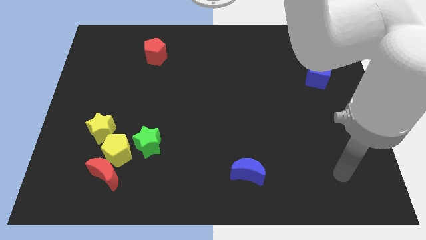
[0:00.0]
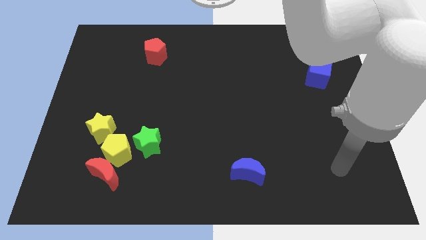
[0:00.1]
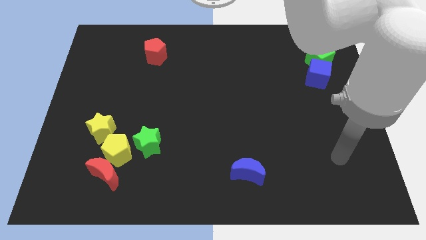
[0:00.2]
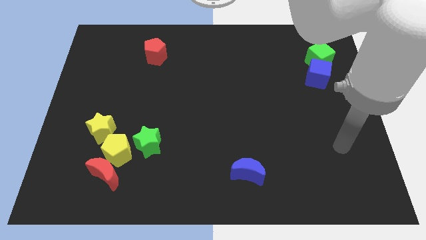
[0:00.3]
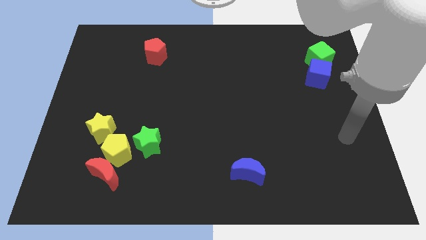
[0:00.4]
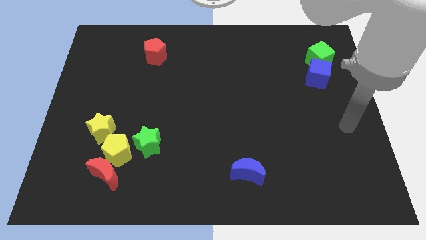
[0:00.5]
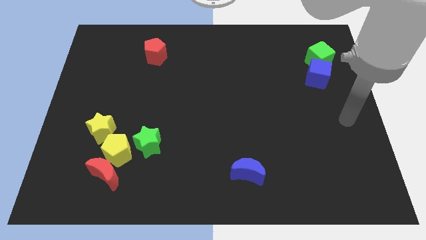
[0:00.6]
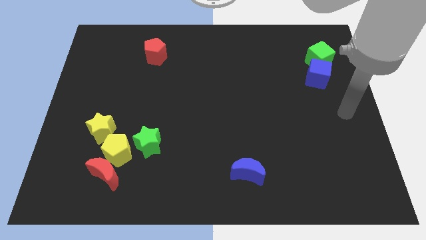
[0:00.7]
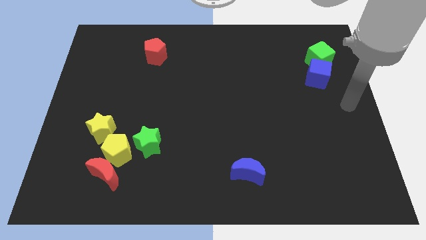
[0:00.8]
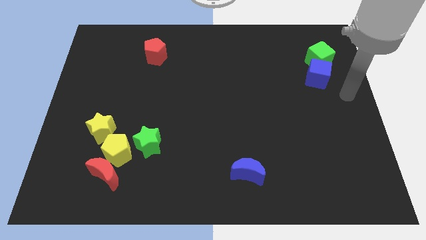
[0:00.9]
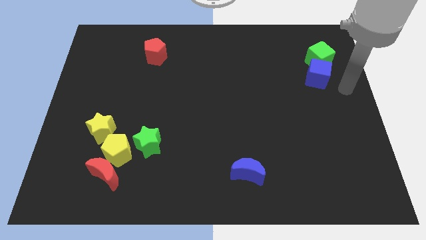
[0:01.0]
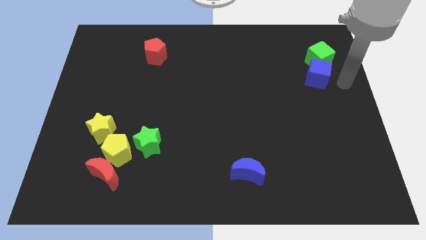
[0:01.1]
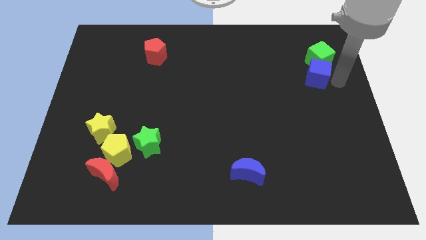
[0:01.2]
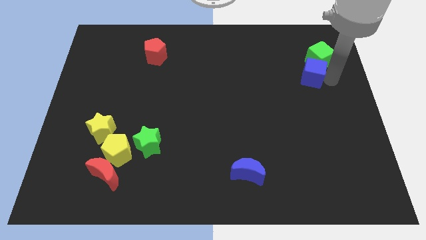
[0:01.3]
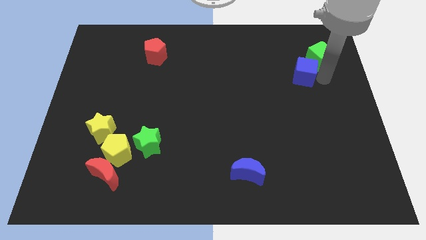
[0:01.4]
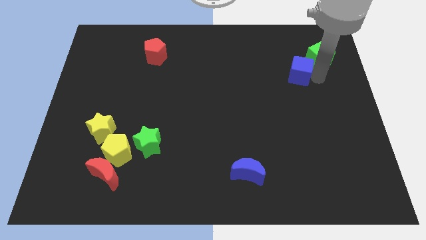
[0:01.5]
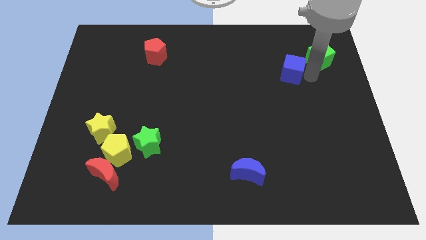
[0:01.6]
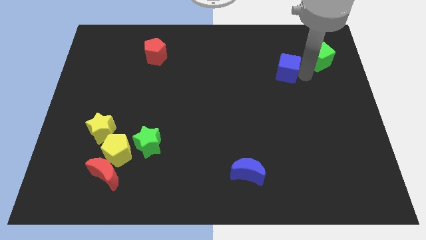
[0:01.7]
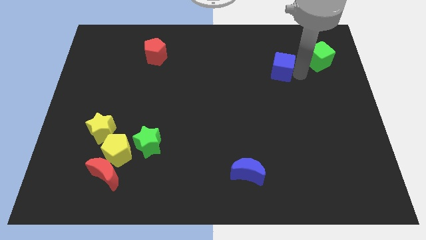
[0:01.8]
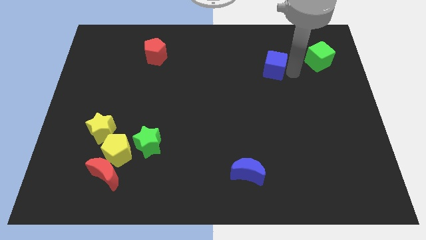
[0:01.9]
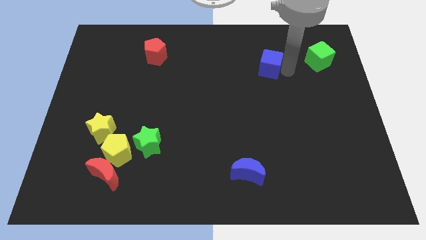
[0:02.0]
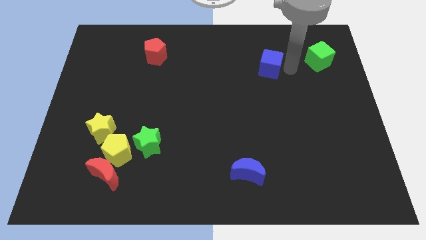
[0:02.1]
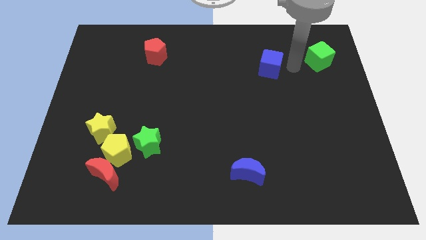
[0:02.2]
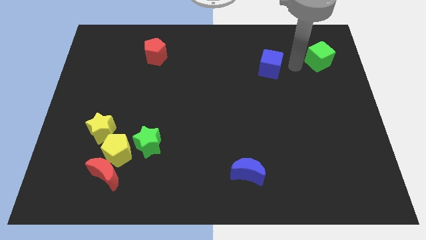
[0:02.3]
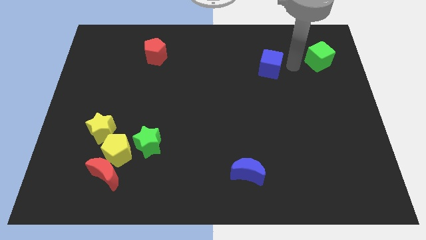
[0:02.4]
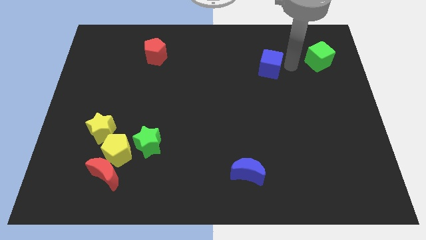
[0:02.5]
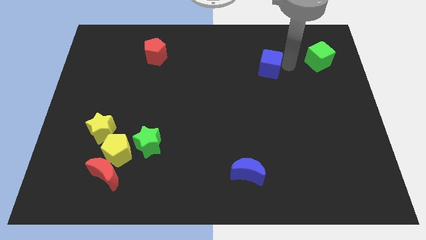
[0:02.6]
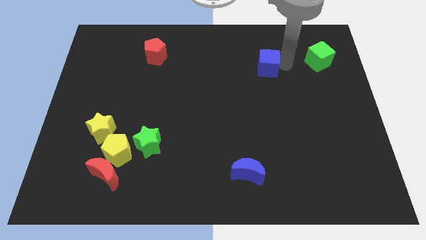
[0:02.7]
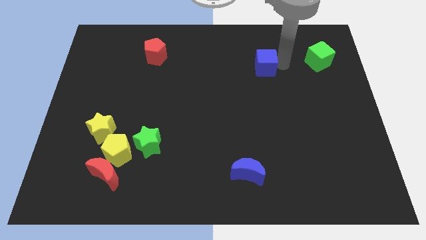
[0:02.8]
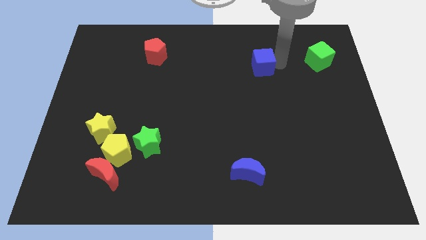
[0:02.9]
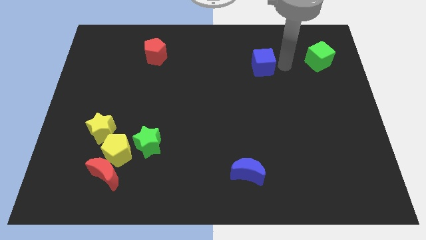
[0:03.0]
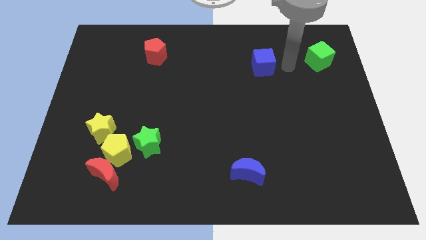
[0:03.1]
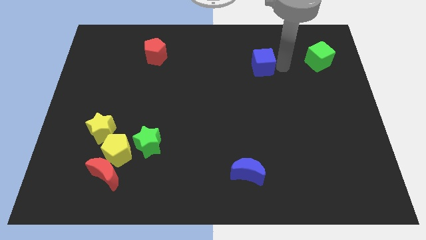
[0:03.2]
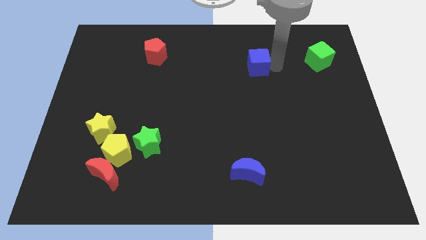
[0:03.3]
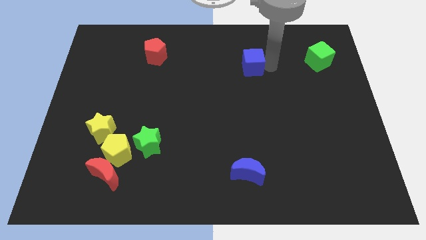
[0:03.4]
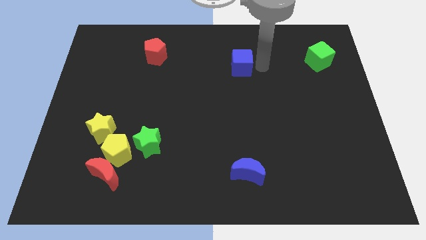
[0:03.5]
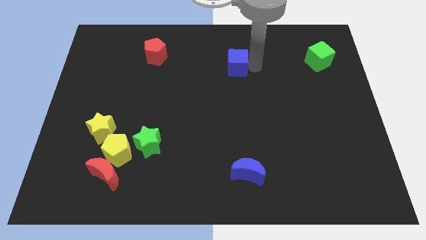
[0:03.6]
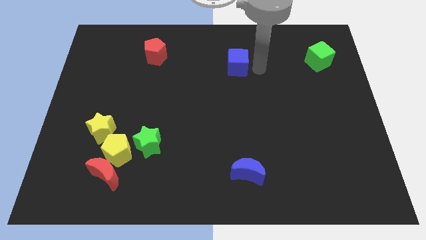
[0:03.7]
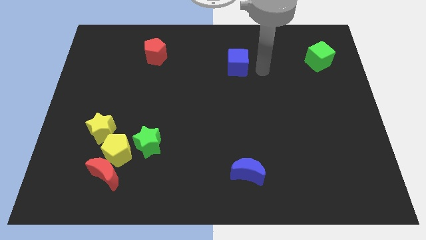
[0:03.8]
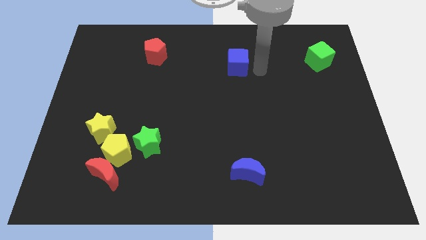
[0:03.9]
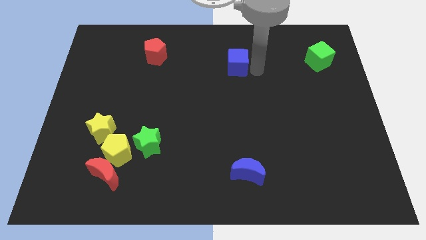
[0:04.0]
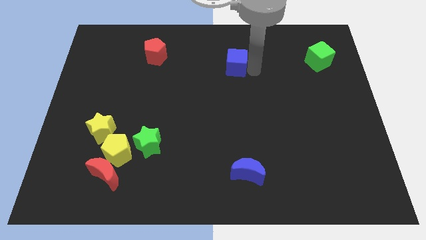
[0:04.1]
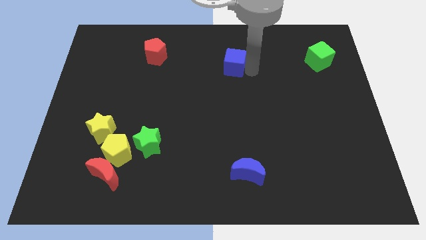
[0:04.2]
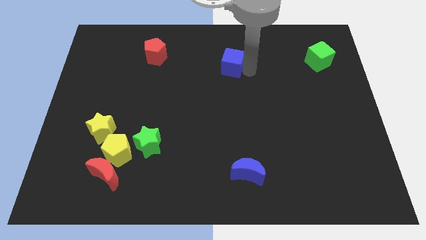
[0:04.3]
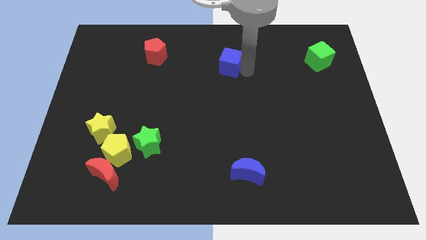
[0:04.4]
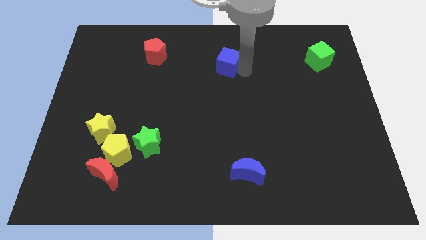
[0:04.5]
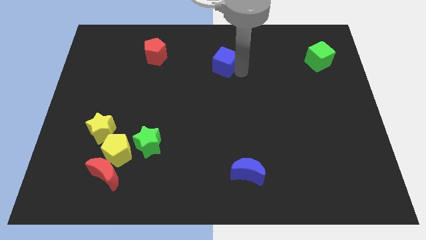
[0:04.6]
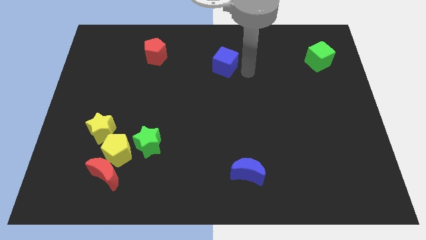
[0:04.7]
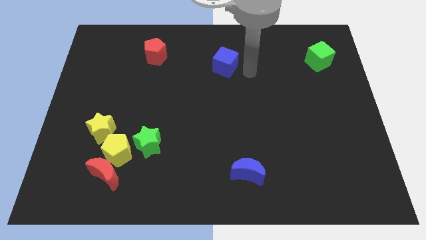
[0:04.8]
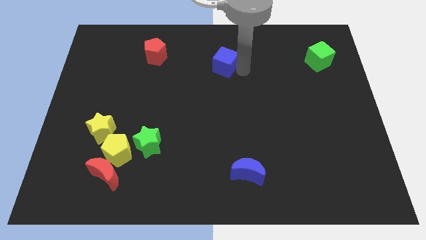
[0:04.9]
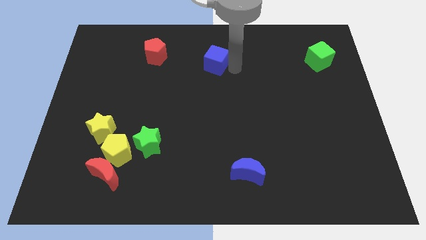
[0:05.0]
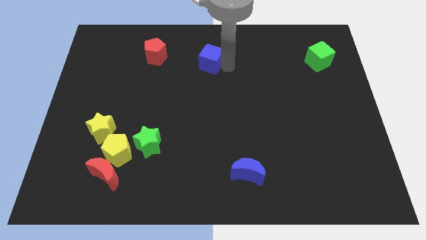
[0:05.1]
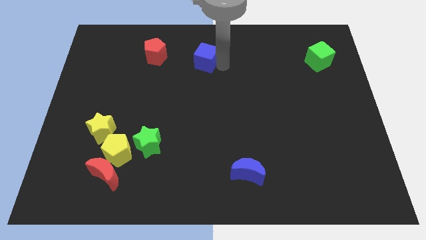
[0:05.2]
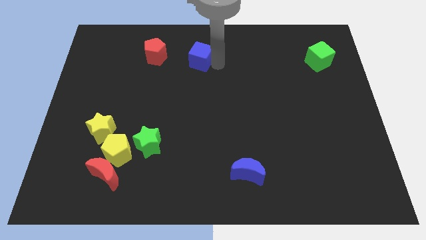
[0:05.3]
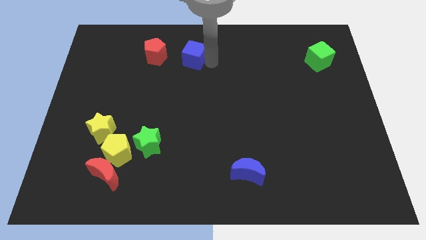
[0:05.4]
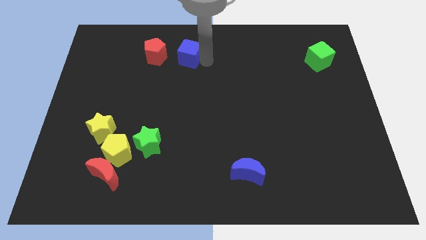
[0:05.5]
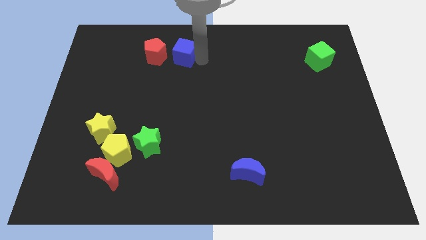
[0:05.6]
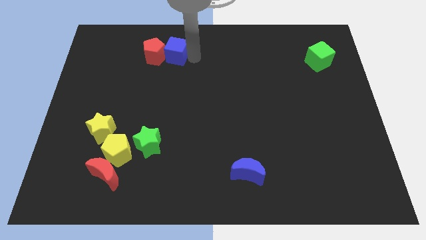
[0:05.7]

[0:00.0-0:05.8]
slide the blue cube close to the red pentagon

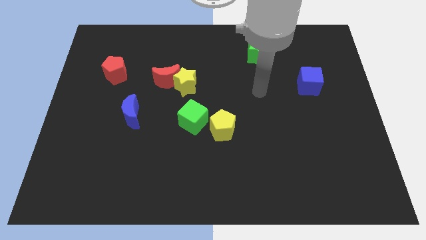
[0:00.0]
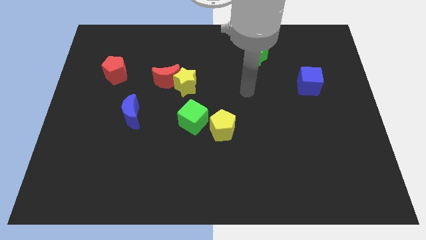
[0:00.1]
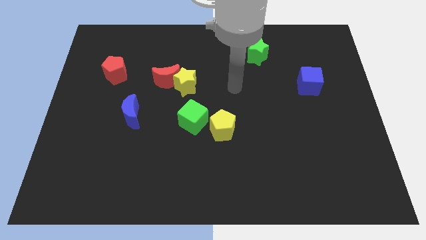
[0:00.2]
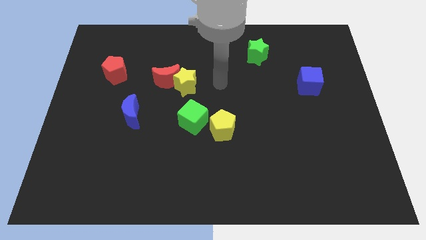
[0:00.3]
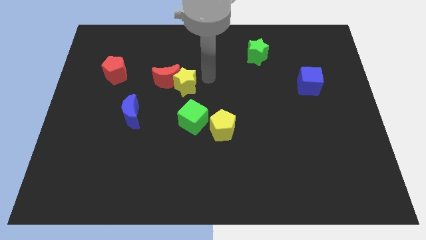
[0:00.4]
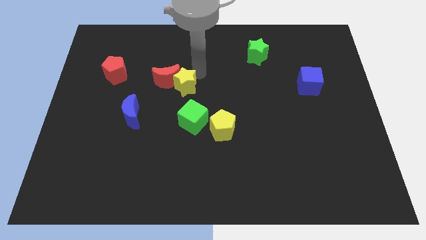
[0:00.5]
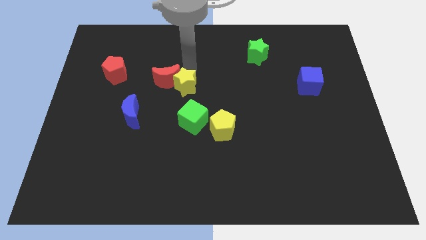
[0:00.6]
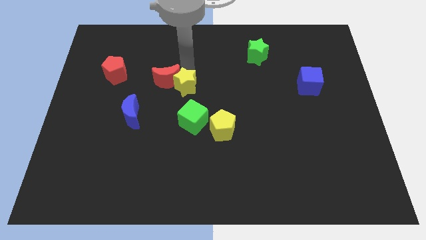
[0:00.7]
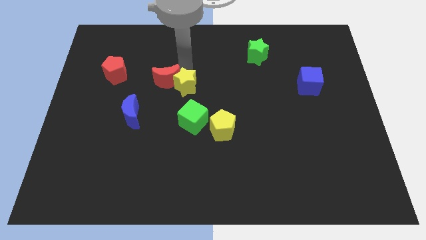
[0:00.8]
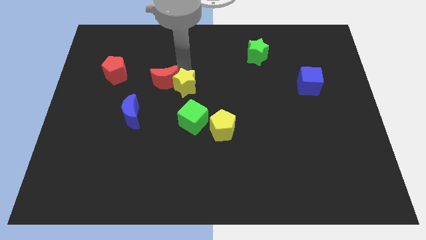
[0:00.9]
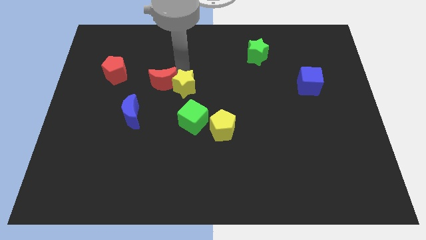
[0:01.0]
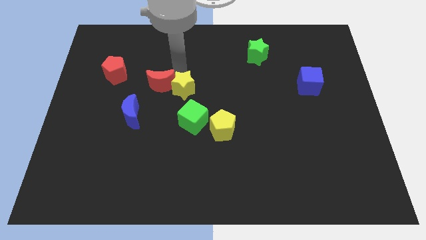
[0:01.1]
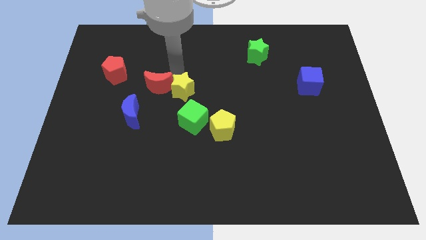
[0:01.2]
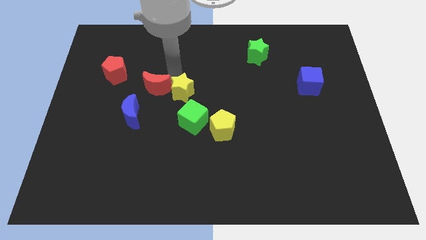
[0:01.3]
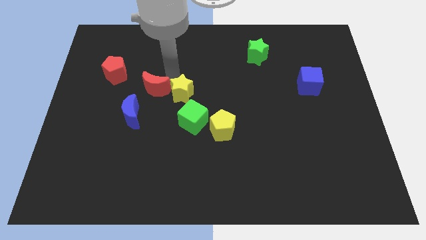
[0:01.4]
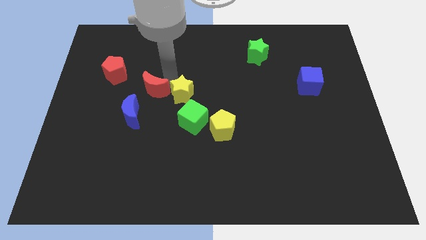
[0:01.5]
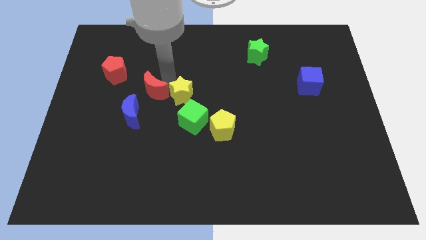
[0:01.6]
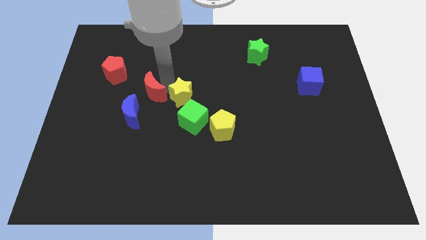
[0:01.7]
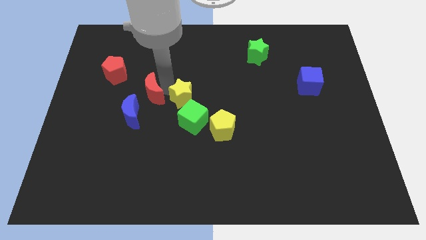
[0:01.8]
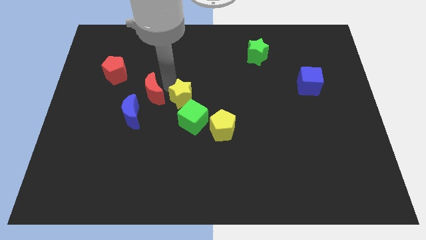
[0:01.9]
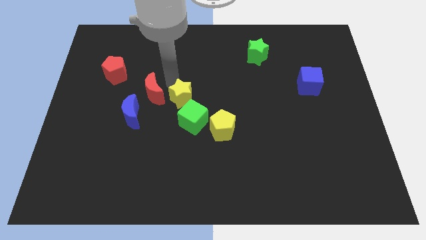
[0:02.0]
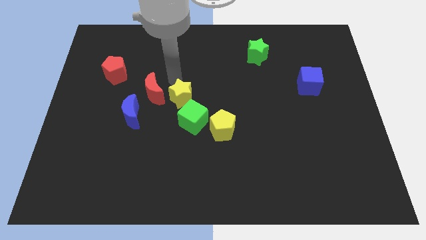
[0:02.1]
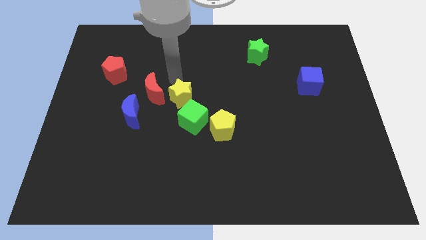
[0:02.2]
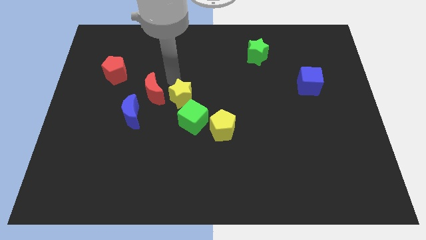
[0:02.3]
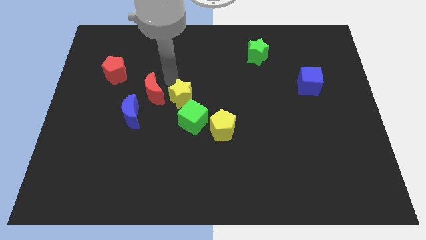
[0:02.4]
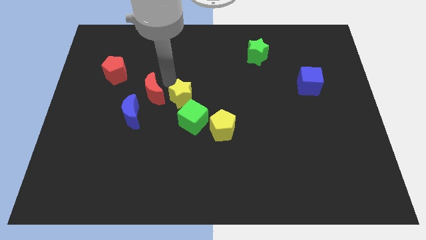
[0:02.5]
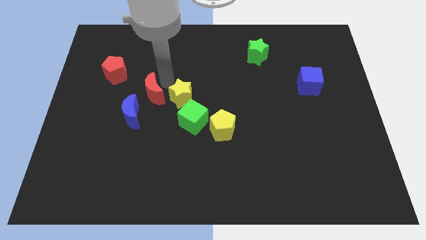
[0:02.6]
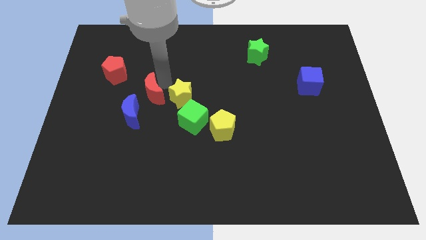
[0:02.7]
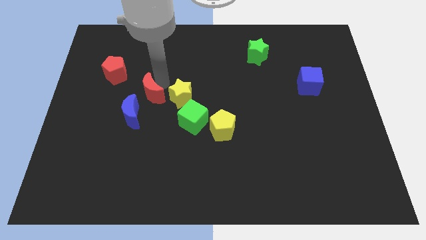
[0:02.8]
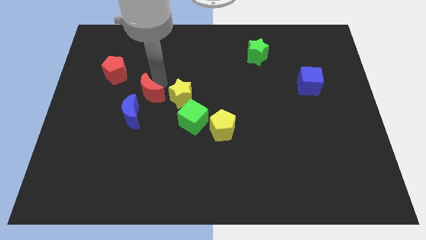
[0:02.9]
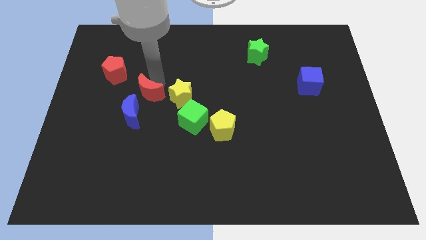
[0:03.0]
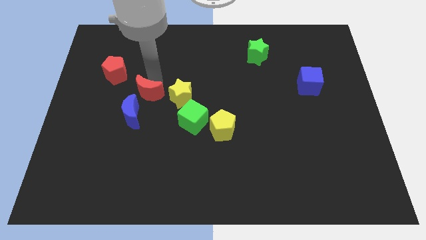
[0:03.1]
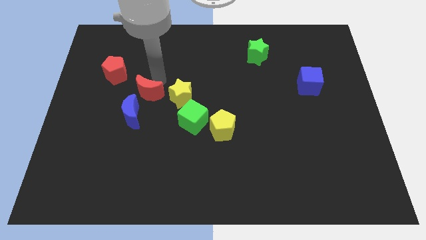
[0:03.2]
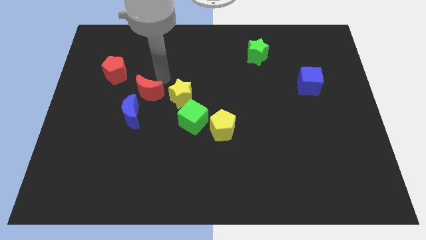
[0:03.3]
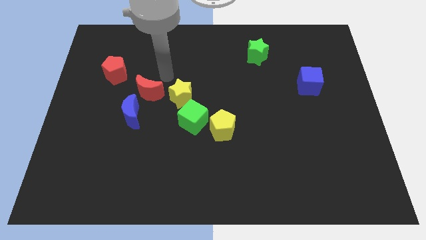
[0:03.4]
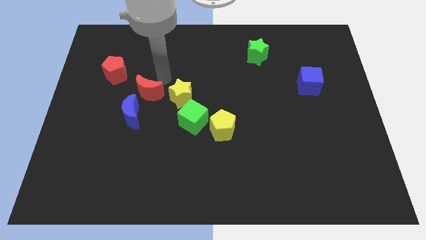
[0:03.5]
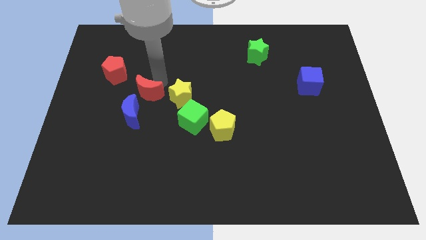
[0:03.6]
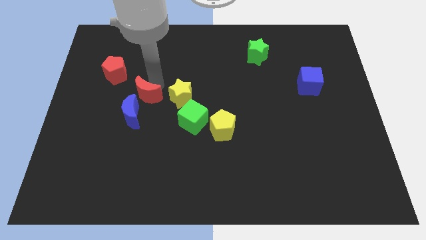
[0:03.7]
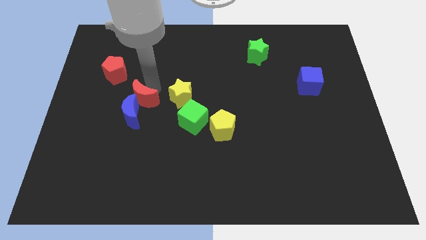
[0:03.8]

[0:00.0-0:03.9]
move the red moon next to the blue moon
